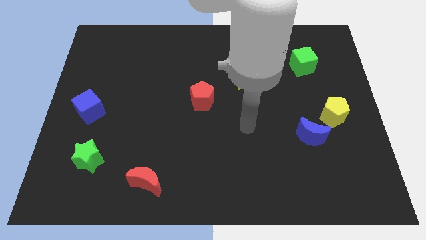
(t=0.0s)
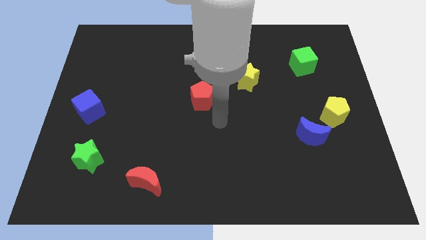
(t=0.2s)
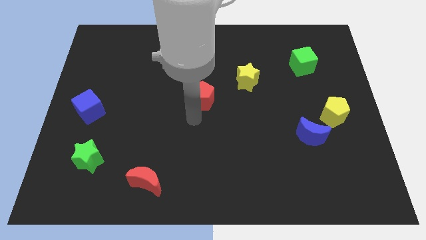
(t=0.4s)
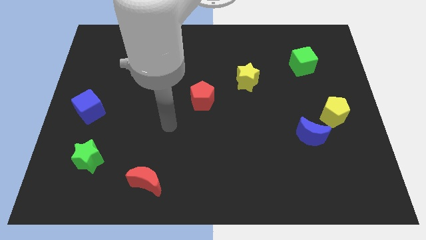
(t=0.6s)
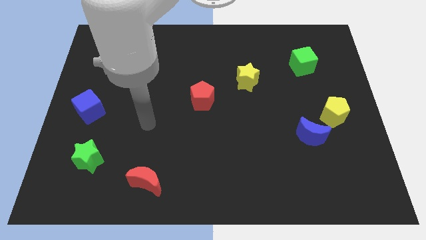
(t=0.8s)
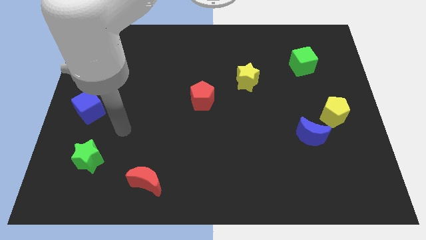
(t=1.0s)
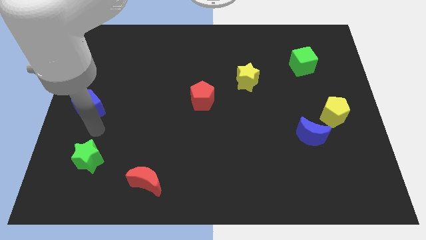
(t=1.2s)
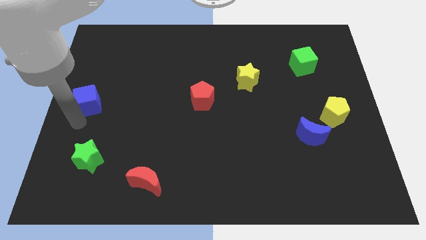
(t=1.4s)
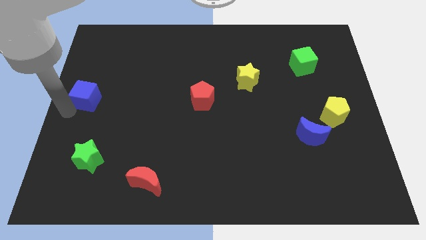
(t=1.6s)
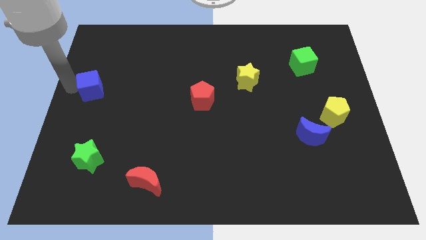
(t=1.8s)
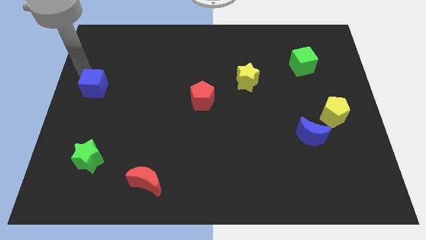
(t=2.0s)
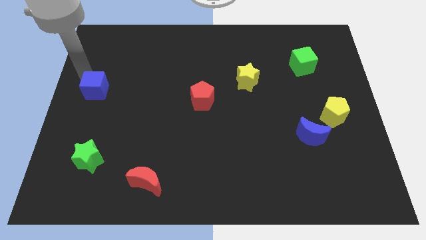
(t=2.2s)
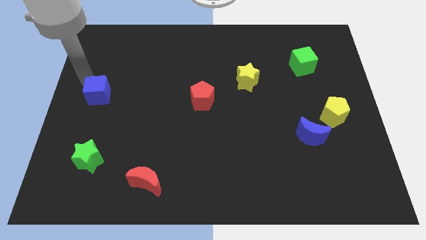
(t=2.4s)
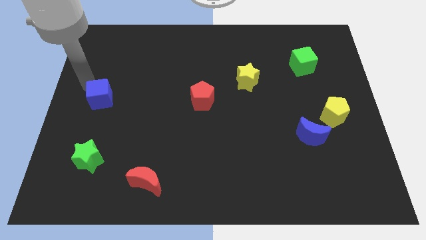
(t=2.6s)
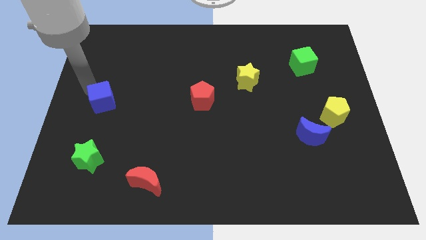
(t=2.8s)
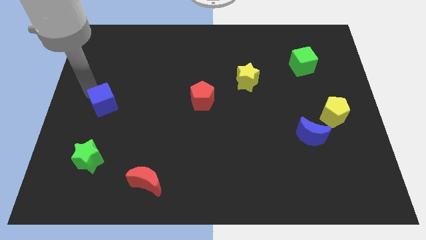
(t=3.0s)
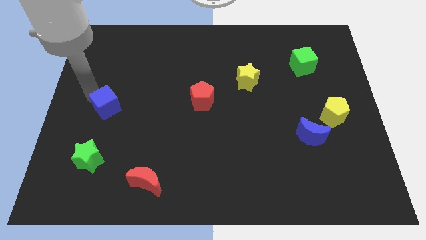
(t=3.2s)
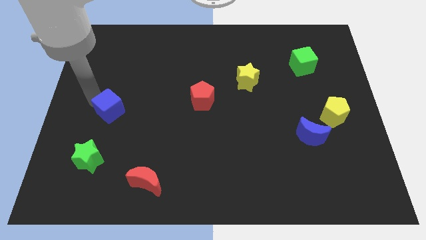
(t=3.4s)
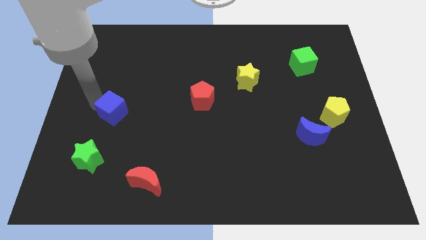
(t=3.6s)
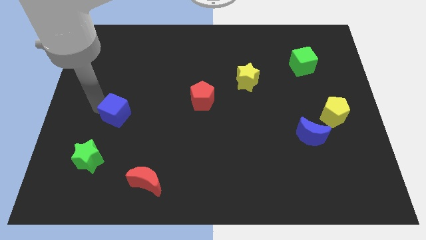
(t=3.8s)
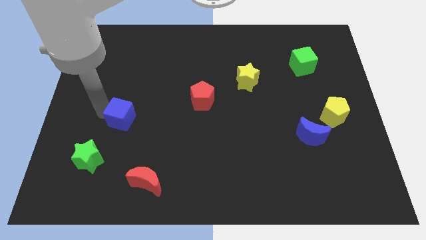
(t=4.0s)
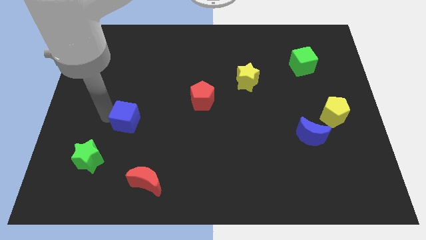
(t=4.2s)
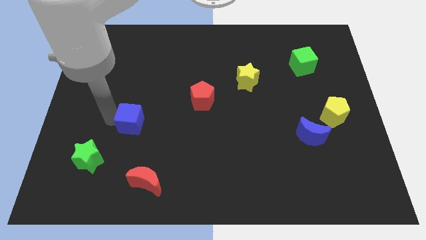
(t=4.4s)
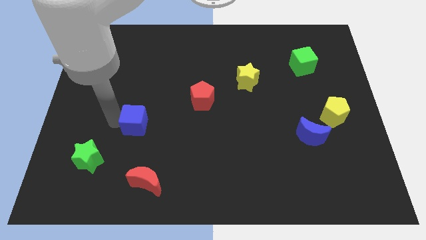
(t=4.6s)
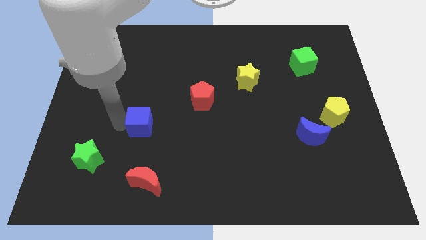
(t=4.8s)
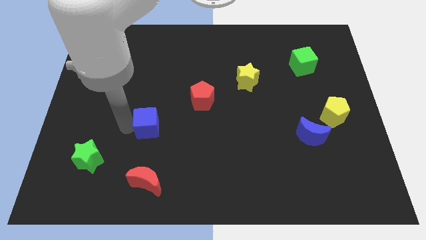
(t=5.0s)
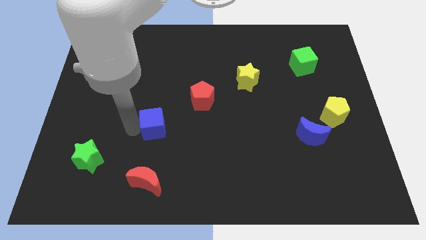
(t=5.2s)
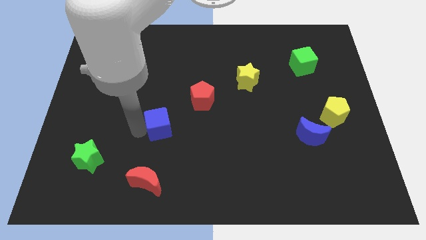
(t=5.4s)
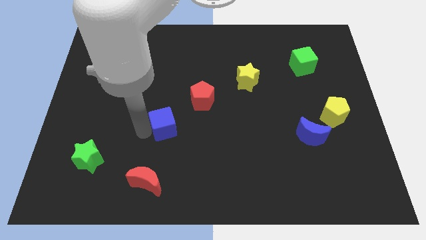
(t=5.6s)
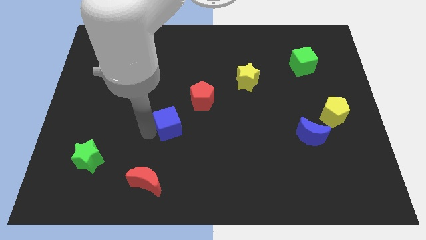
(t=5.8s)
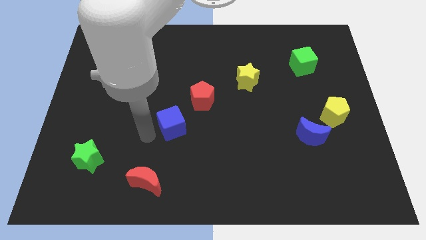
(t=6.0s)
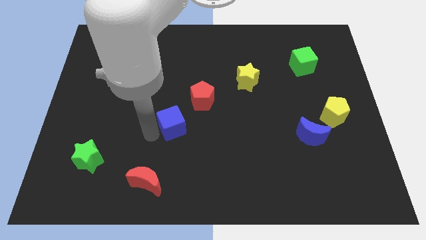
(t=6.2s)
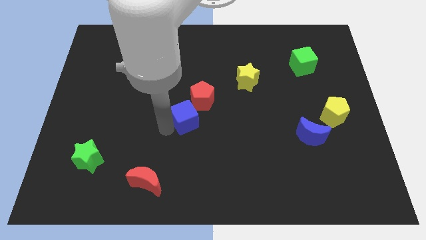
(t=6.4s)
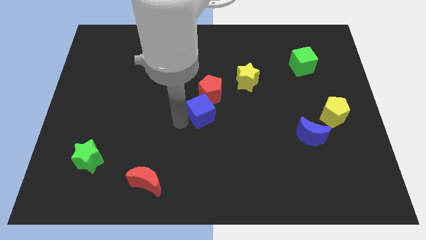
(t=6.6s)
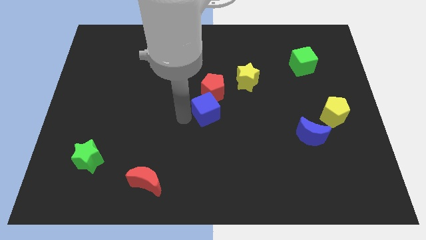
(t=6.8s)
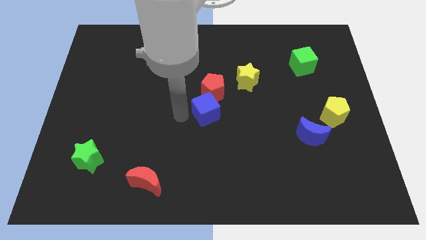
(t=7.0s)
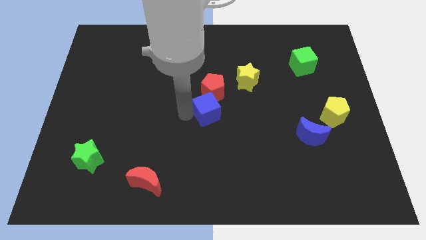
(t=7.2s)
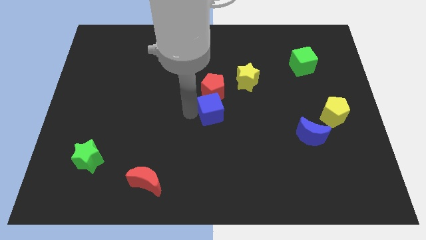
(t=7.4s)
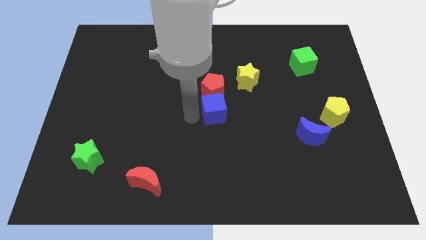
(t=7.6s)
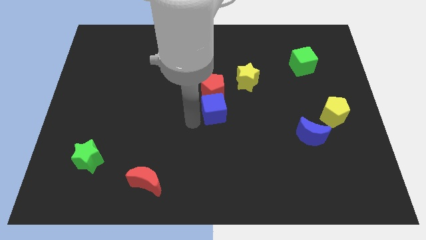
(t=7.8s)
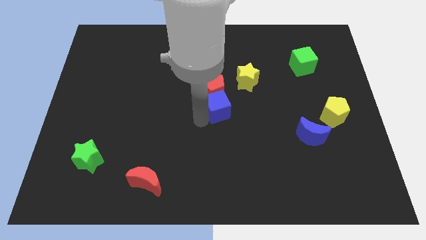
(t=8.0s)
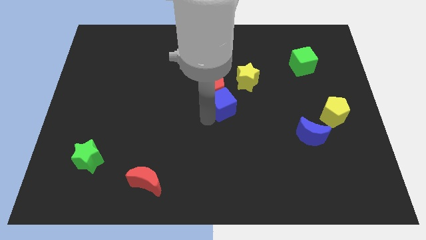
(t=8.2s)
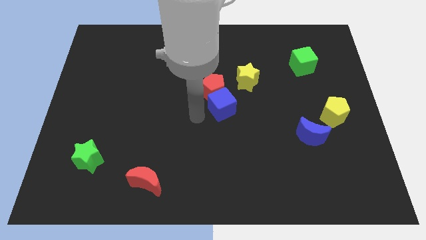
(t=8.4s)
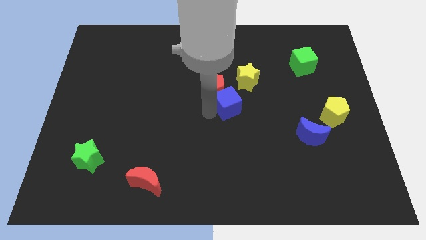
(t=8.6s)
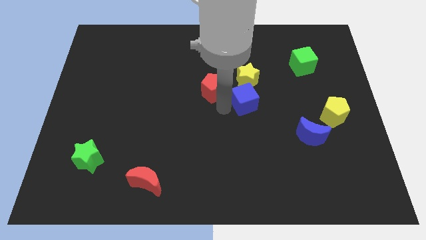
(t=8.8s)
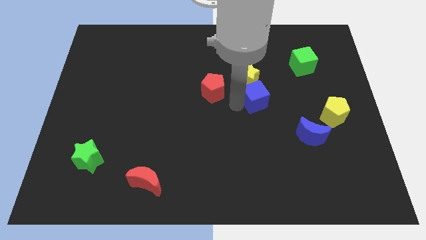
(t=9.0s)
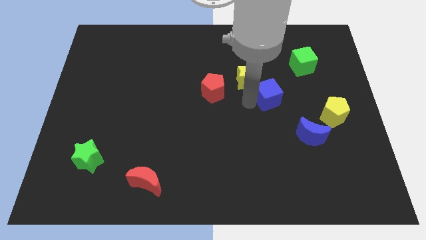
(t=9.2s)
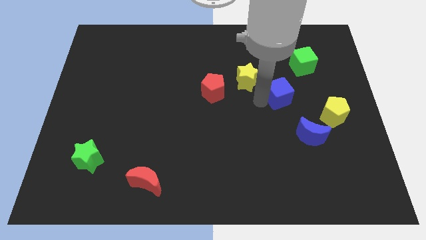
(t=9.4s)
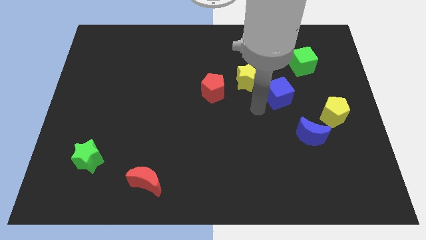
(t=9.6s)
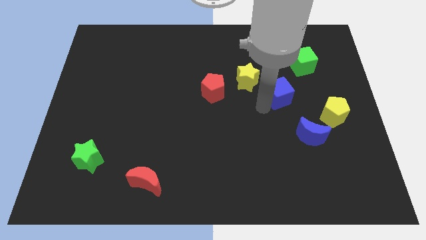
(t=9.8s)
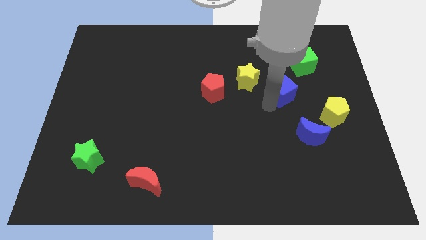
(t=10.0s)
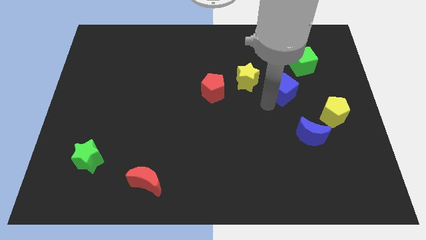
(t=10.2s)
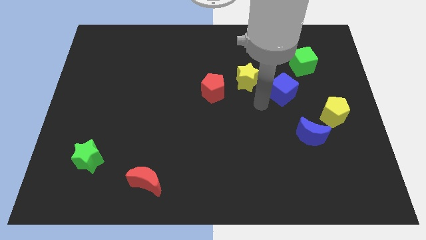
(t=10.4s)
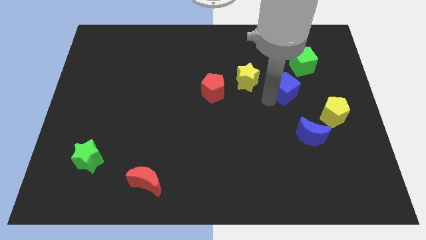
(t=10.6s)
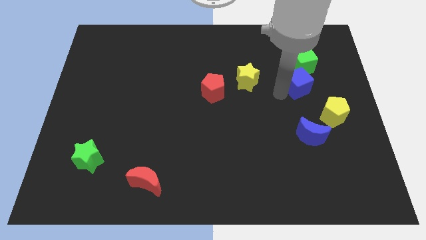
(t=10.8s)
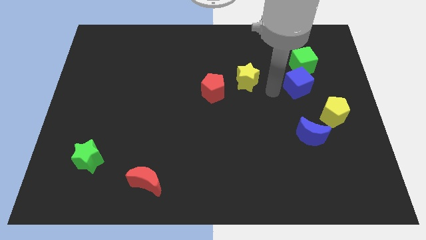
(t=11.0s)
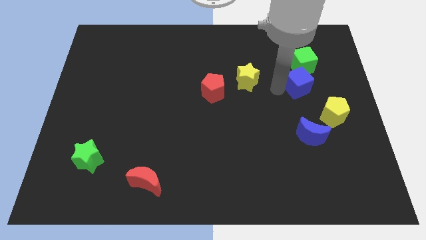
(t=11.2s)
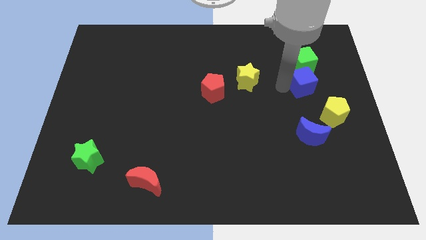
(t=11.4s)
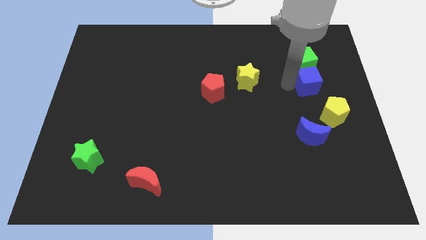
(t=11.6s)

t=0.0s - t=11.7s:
move the blue cube to the top of the yellow pentagon
